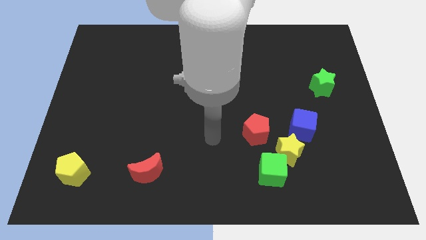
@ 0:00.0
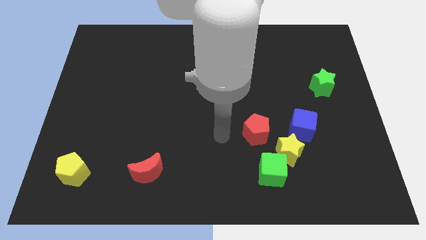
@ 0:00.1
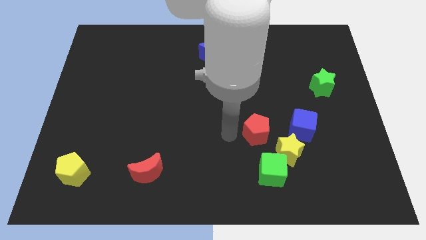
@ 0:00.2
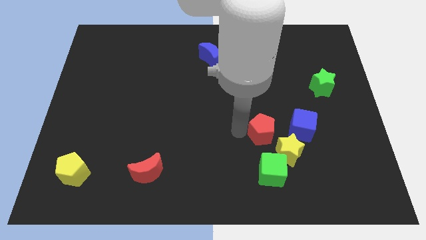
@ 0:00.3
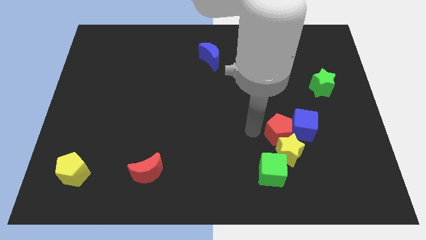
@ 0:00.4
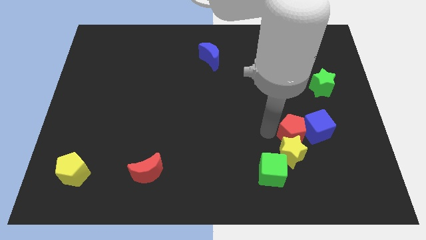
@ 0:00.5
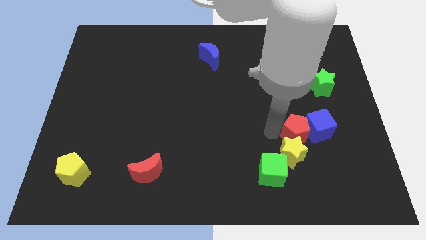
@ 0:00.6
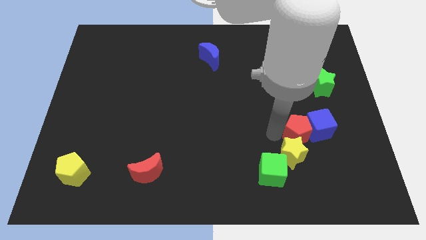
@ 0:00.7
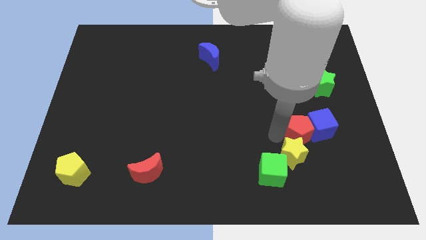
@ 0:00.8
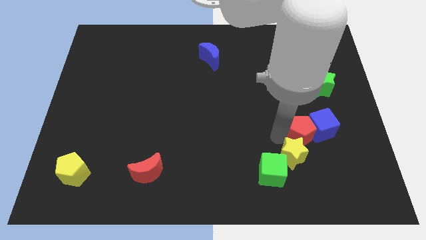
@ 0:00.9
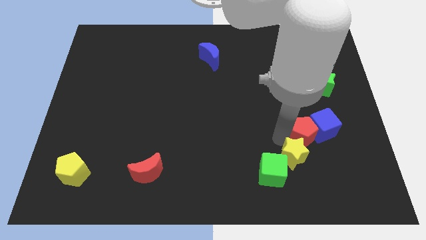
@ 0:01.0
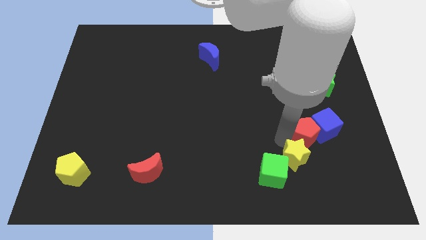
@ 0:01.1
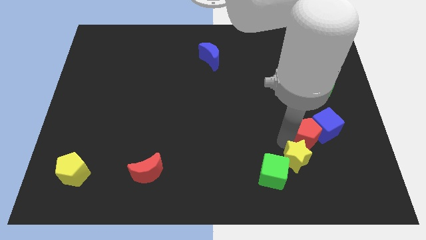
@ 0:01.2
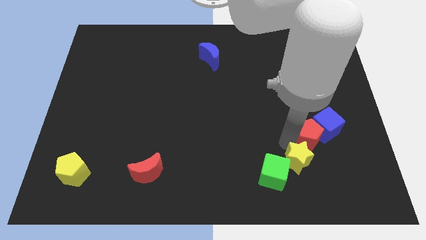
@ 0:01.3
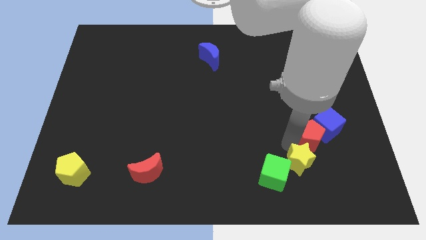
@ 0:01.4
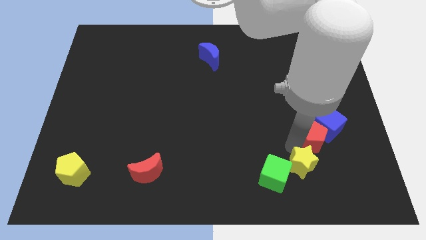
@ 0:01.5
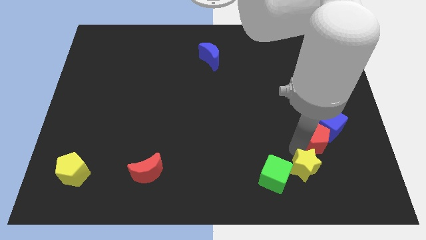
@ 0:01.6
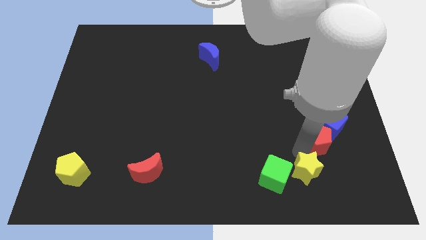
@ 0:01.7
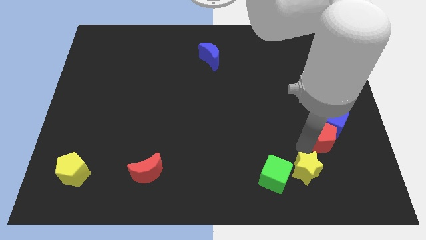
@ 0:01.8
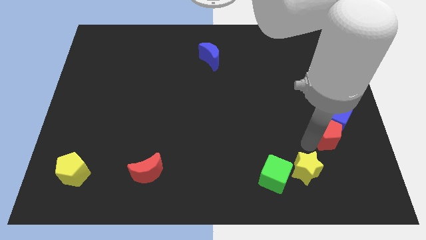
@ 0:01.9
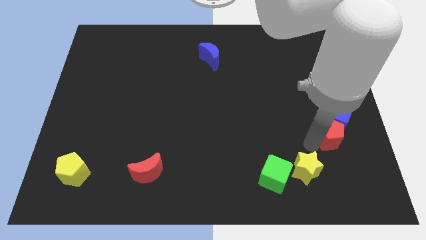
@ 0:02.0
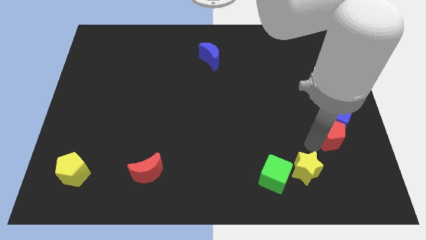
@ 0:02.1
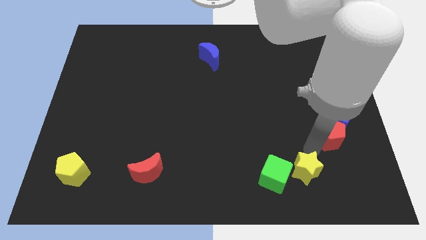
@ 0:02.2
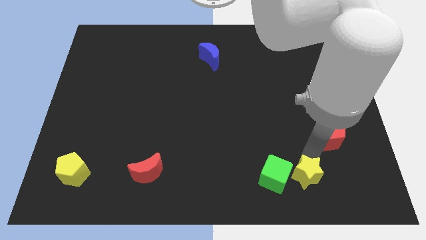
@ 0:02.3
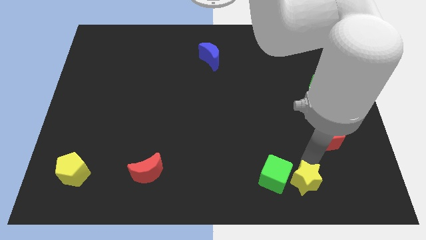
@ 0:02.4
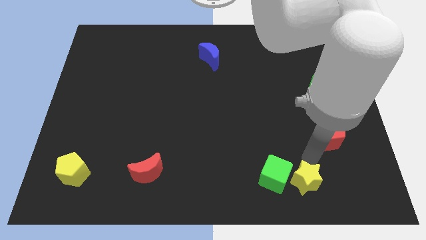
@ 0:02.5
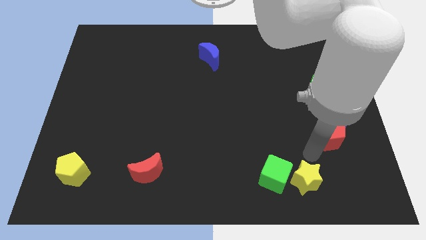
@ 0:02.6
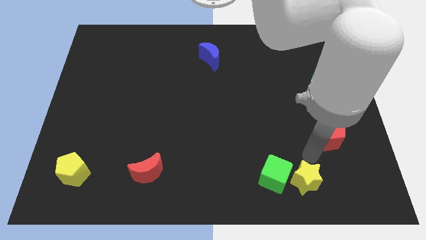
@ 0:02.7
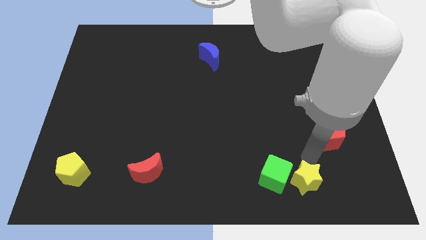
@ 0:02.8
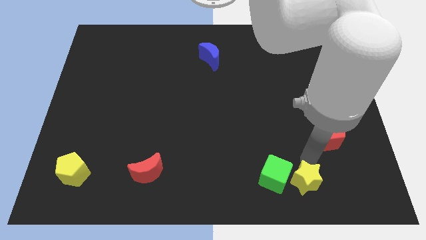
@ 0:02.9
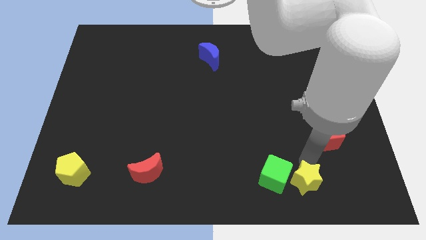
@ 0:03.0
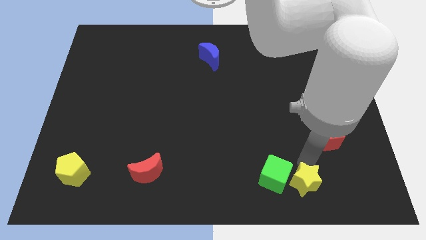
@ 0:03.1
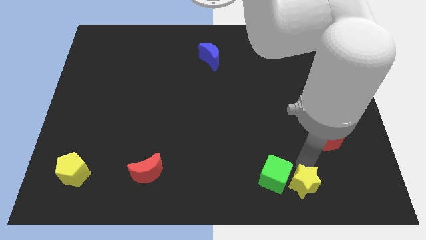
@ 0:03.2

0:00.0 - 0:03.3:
pull the yellow star apart from the group of blocks

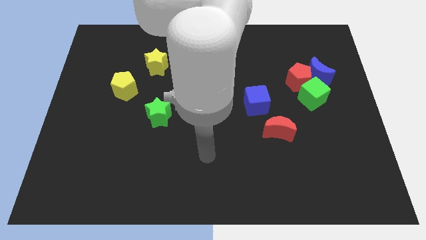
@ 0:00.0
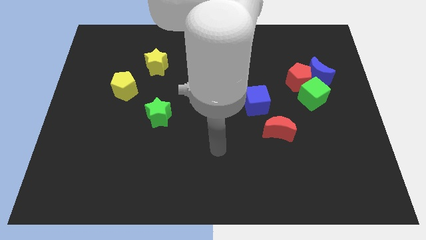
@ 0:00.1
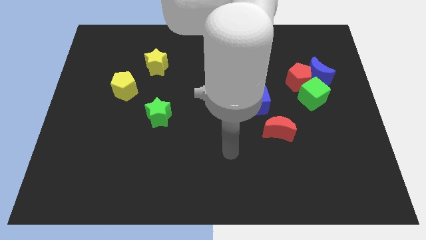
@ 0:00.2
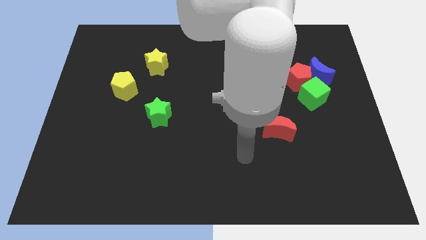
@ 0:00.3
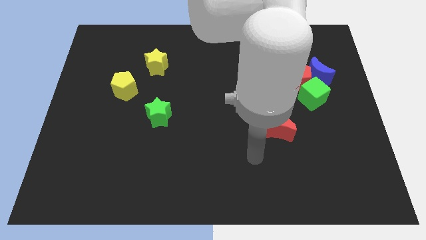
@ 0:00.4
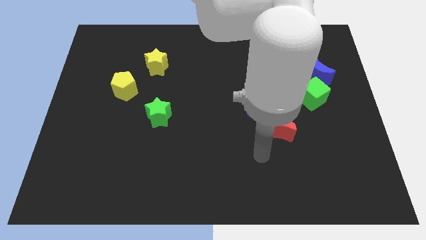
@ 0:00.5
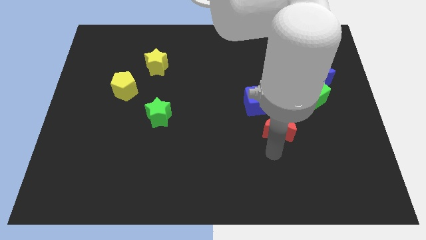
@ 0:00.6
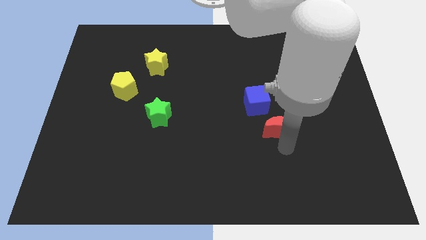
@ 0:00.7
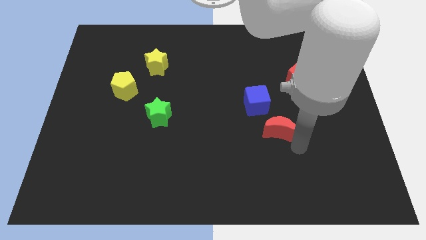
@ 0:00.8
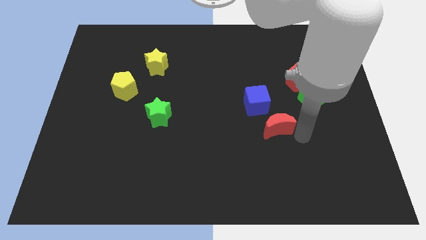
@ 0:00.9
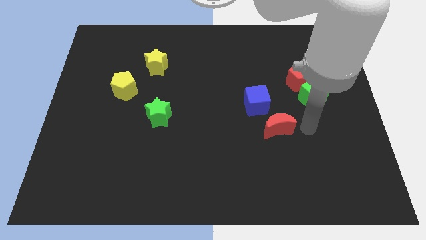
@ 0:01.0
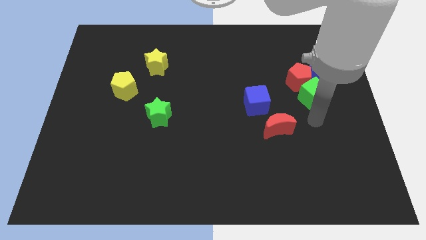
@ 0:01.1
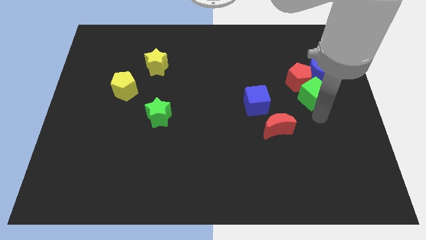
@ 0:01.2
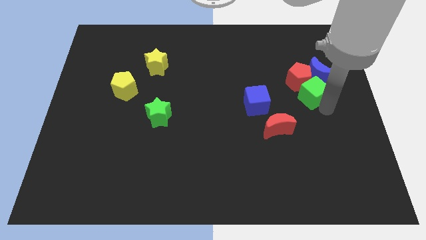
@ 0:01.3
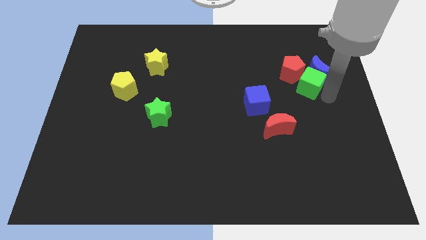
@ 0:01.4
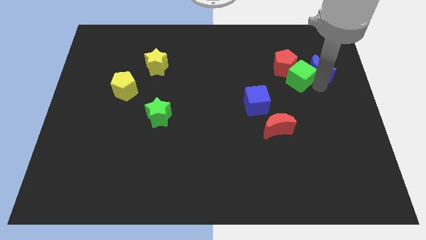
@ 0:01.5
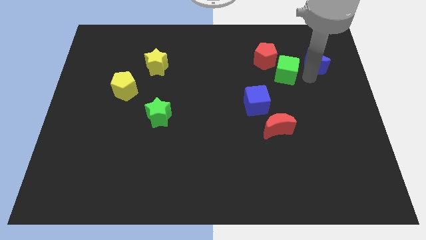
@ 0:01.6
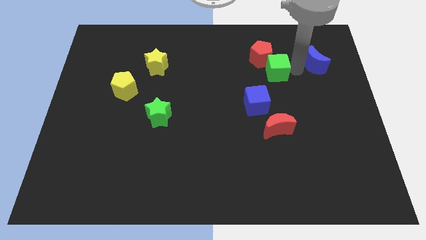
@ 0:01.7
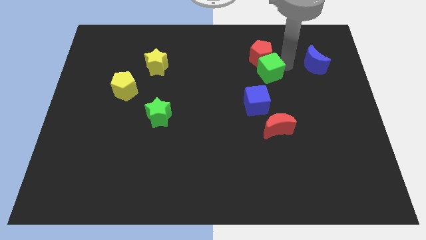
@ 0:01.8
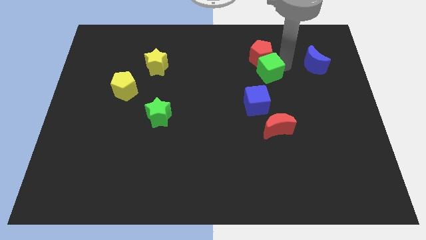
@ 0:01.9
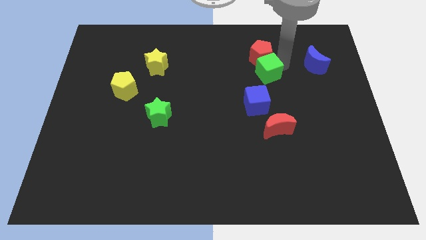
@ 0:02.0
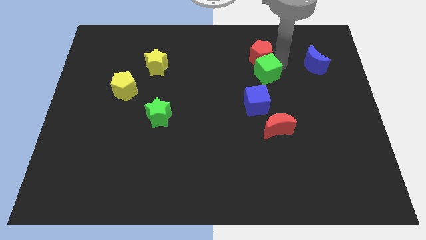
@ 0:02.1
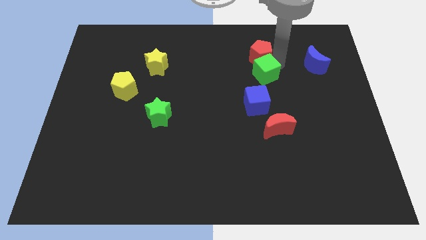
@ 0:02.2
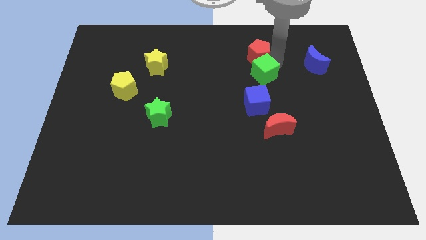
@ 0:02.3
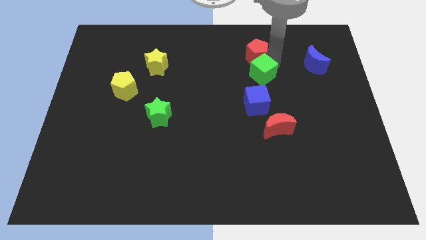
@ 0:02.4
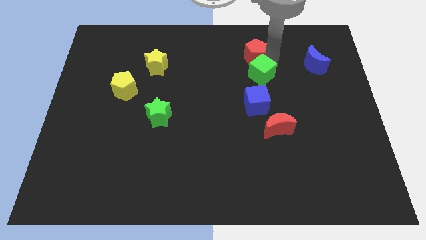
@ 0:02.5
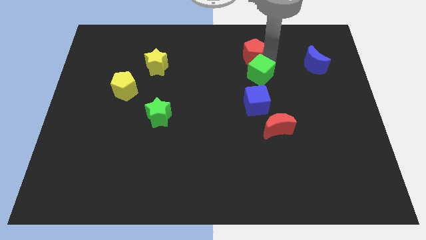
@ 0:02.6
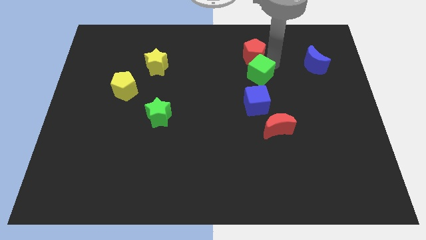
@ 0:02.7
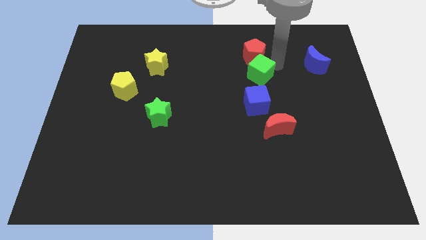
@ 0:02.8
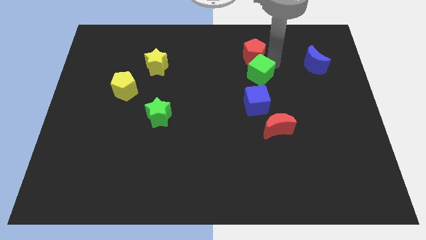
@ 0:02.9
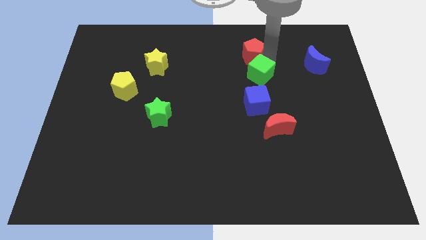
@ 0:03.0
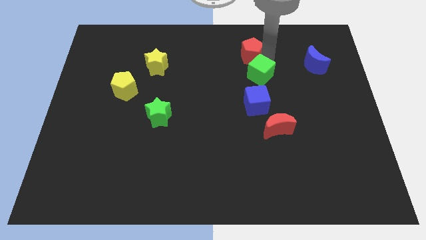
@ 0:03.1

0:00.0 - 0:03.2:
move the red pentagon away from the blue moon and green cube

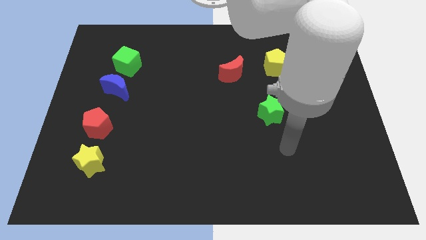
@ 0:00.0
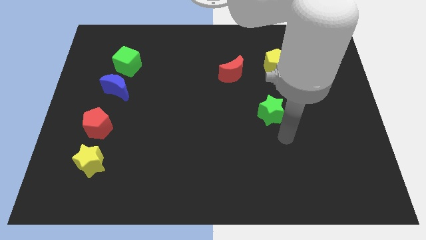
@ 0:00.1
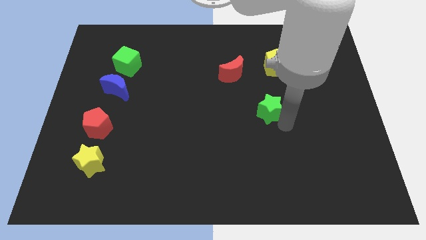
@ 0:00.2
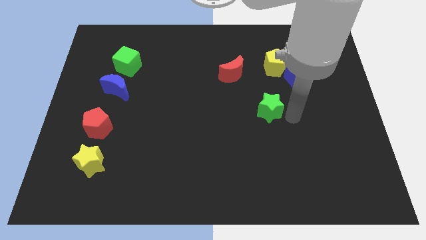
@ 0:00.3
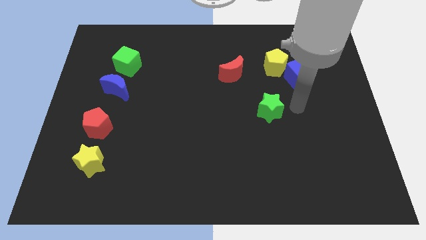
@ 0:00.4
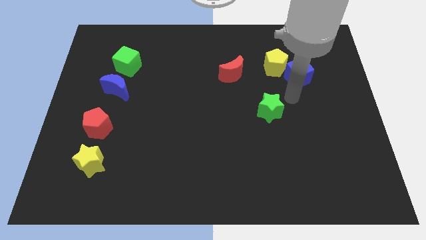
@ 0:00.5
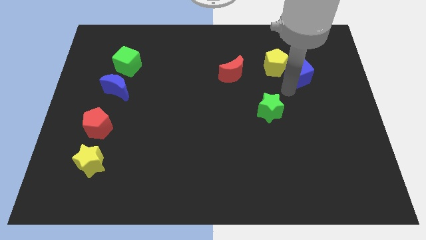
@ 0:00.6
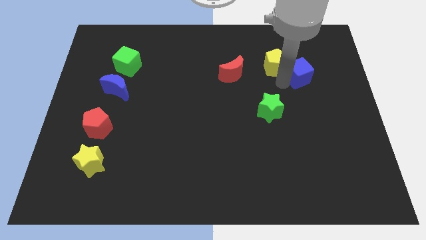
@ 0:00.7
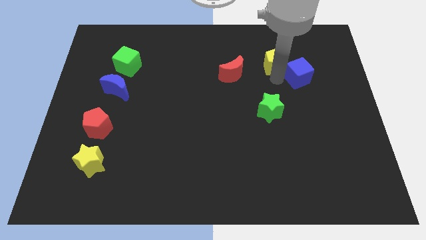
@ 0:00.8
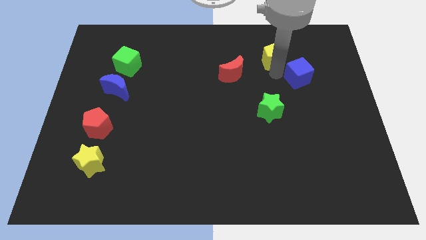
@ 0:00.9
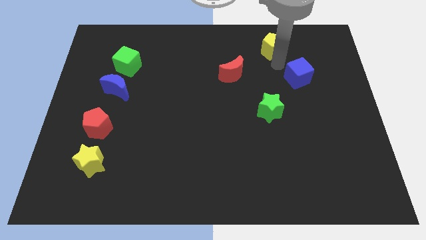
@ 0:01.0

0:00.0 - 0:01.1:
pull the blue cube apart from the yellow pentagon

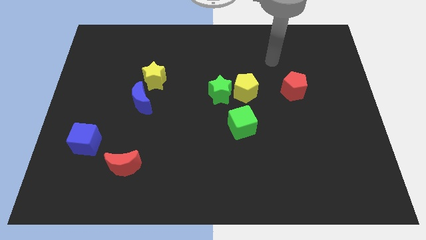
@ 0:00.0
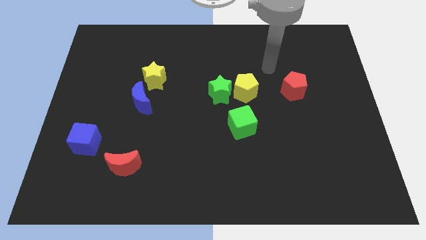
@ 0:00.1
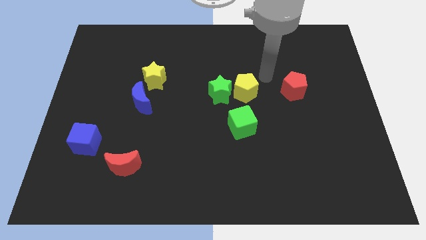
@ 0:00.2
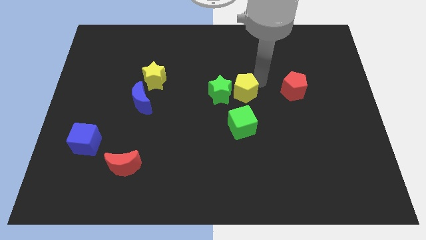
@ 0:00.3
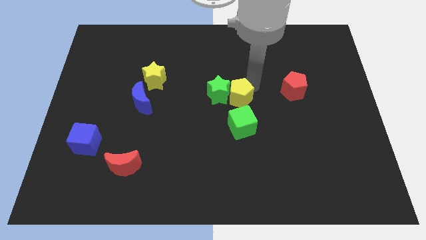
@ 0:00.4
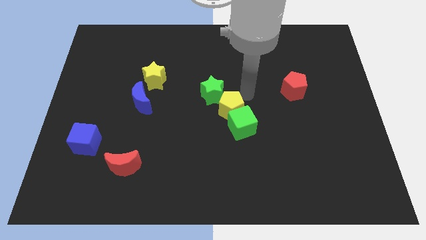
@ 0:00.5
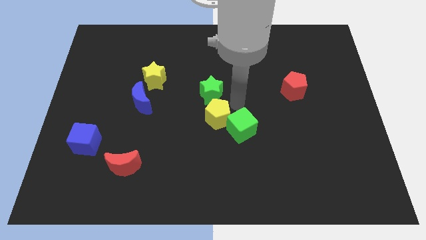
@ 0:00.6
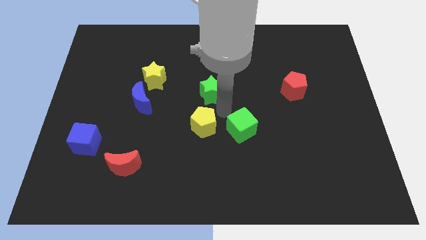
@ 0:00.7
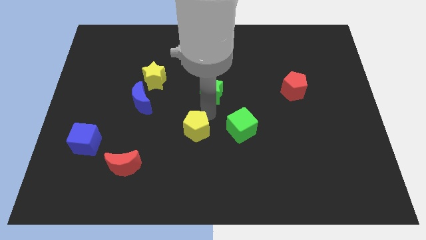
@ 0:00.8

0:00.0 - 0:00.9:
separate the green star from the yellow pentagon

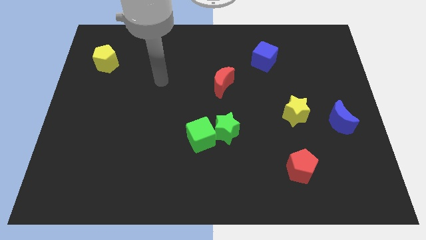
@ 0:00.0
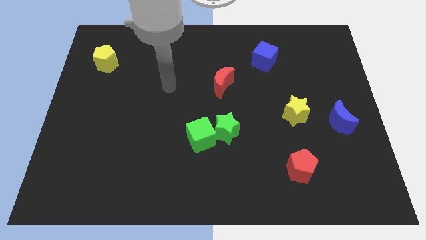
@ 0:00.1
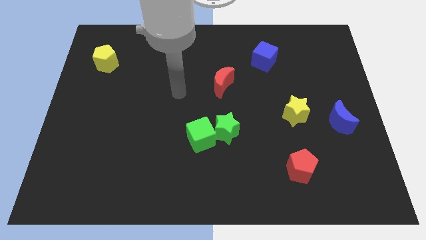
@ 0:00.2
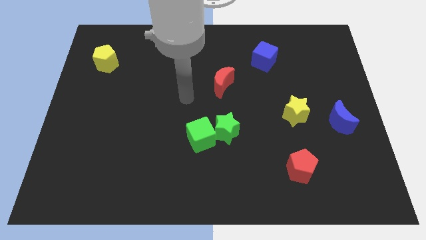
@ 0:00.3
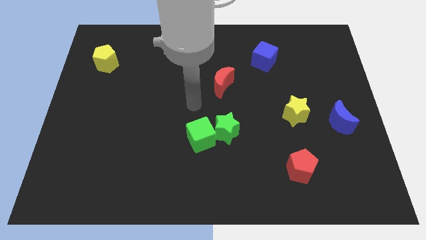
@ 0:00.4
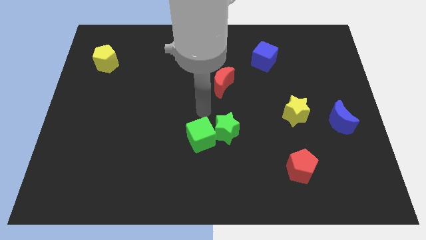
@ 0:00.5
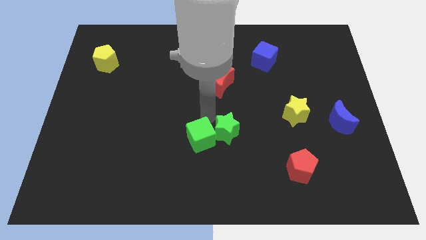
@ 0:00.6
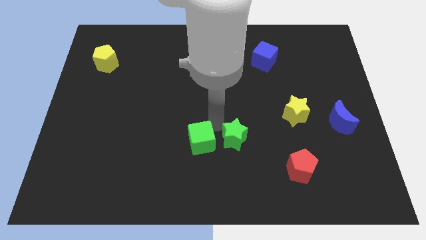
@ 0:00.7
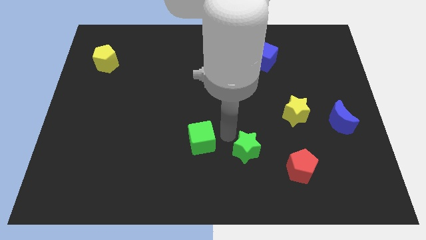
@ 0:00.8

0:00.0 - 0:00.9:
move the green cube away from the green star
